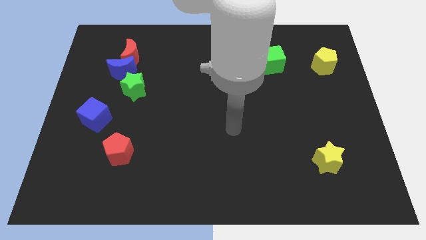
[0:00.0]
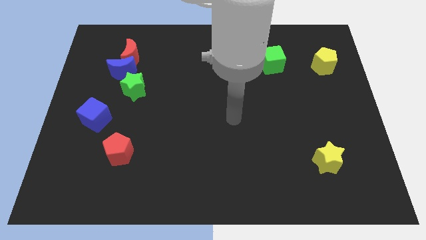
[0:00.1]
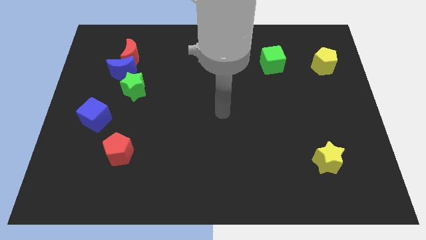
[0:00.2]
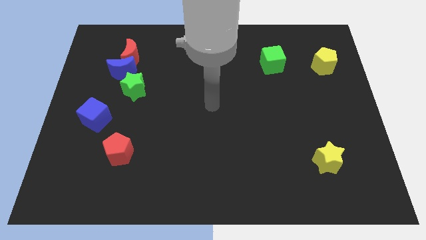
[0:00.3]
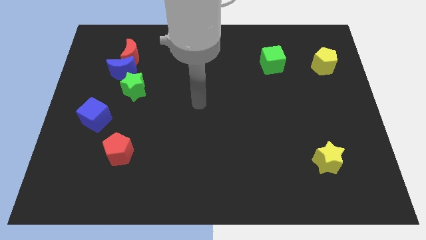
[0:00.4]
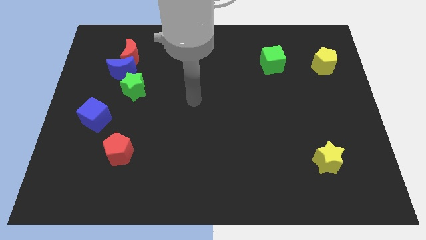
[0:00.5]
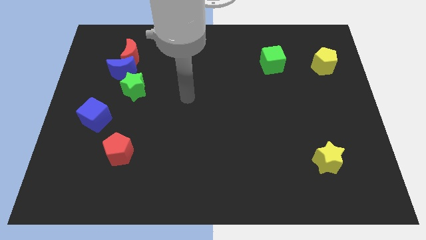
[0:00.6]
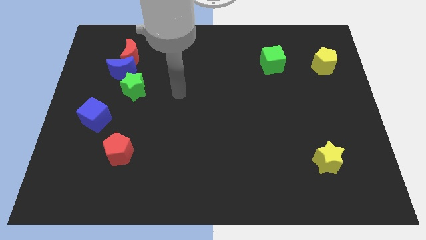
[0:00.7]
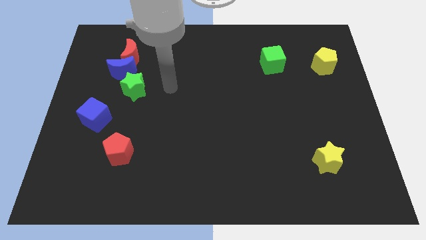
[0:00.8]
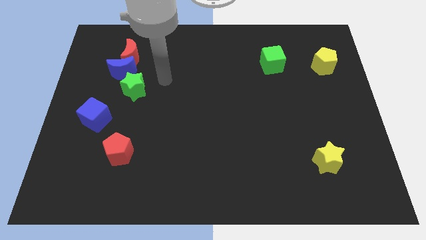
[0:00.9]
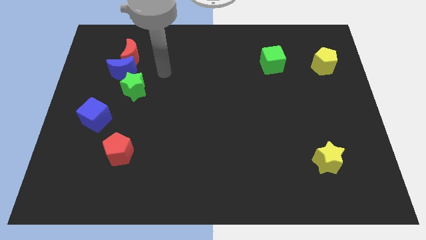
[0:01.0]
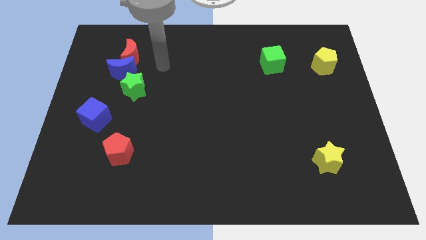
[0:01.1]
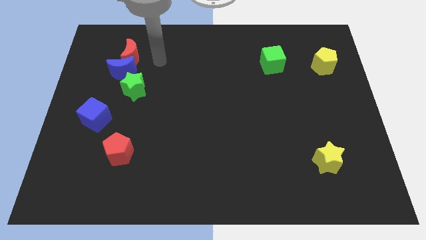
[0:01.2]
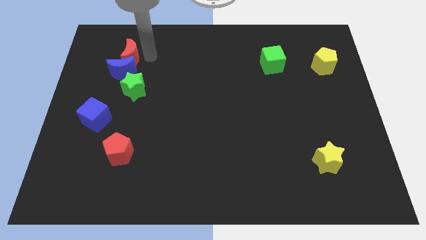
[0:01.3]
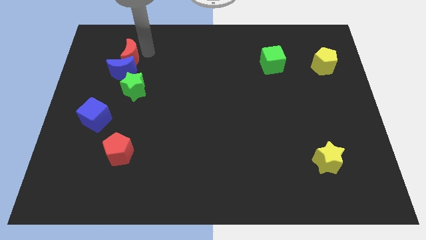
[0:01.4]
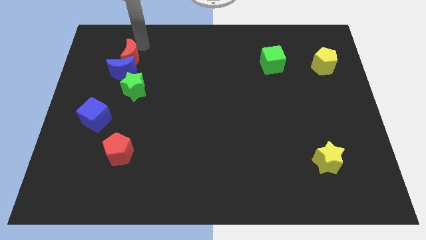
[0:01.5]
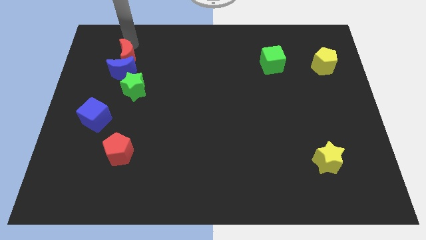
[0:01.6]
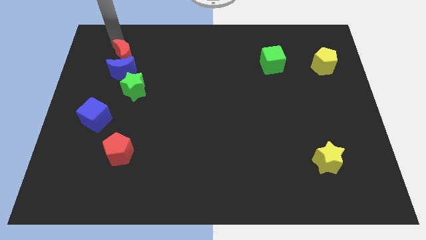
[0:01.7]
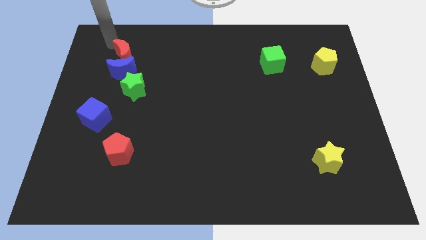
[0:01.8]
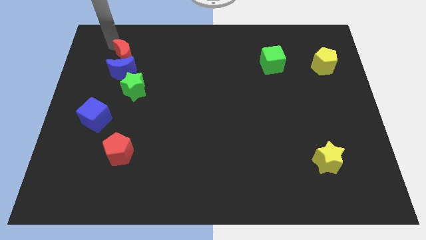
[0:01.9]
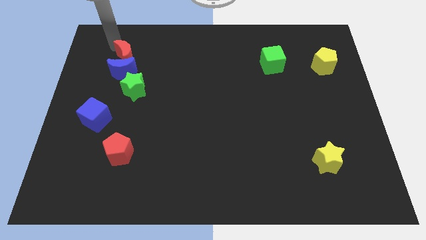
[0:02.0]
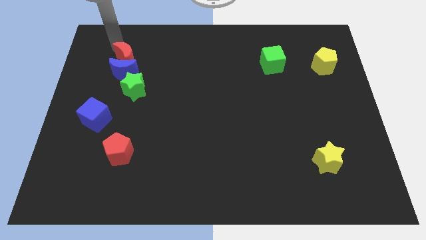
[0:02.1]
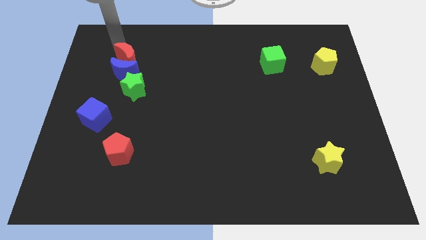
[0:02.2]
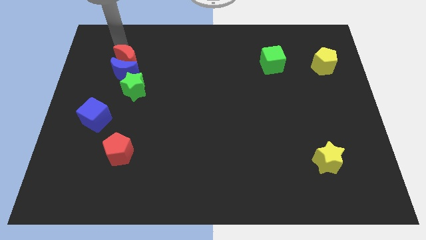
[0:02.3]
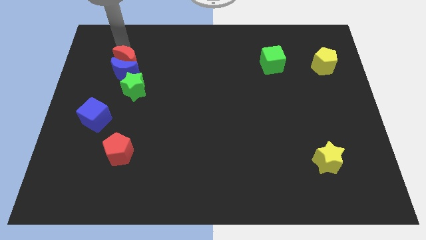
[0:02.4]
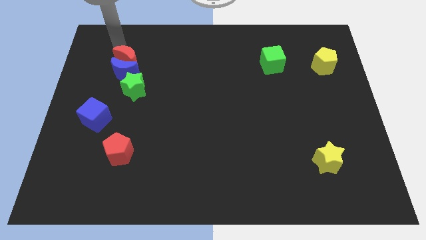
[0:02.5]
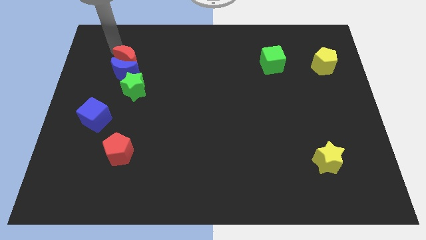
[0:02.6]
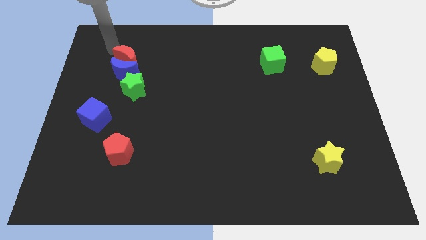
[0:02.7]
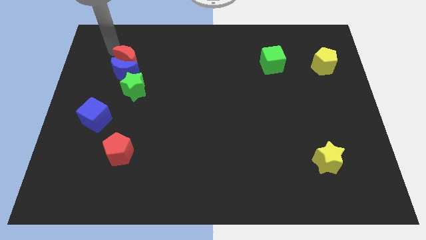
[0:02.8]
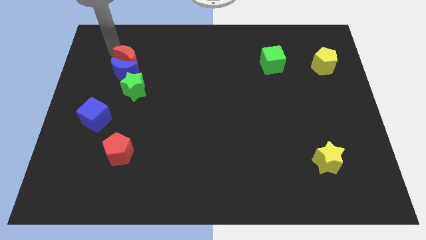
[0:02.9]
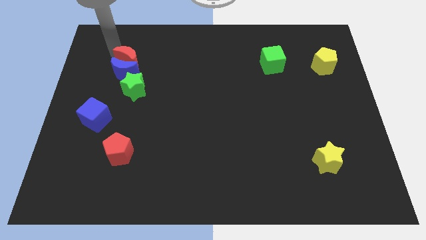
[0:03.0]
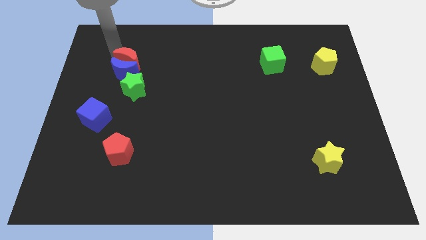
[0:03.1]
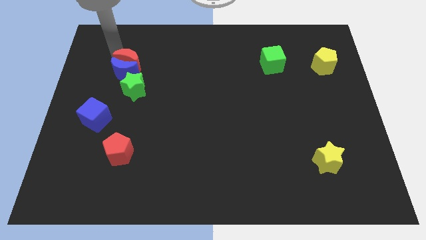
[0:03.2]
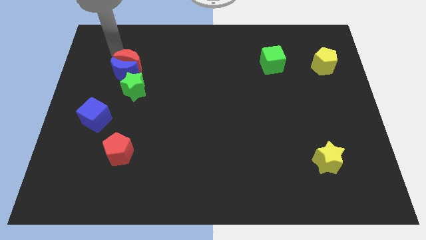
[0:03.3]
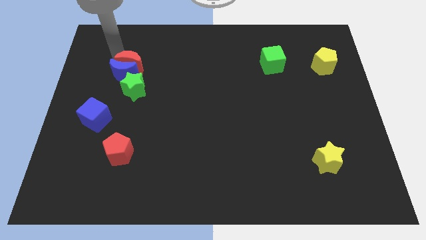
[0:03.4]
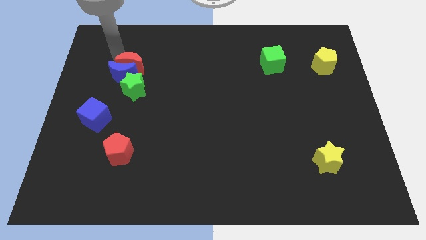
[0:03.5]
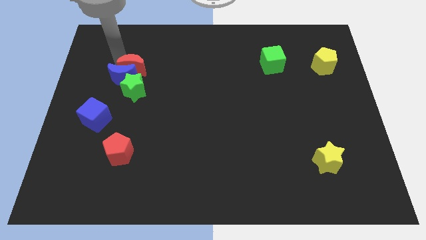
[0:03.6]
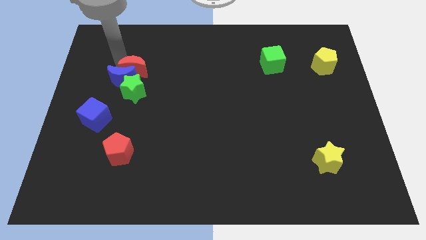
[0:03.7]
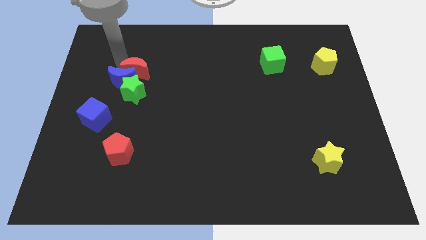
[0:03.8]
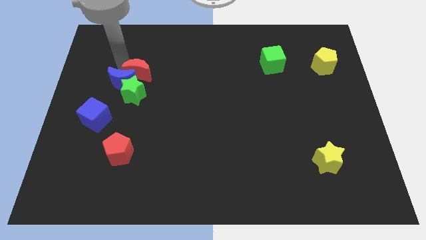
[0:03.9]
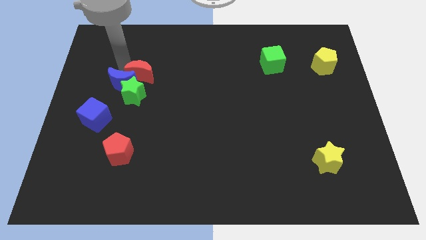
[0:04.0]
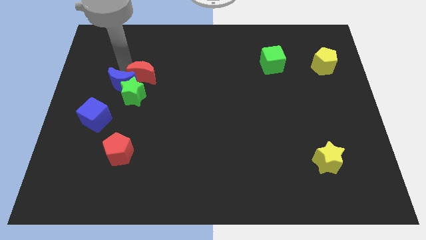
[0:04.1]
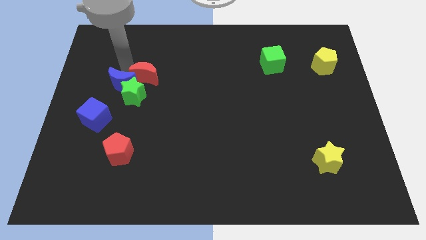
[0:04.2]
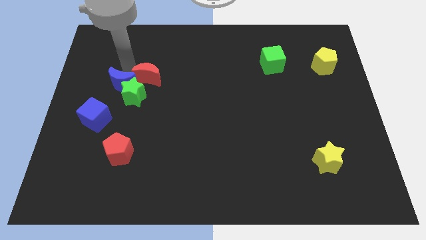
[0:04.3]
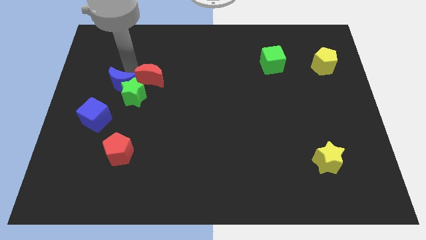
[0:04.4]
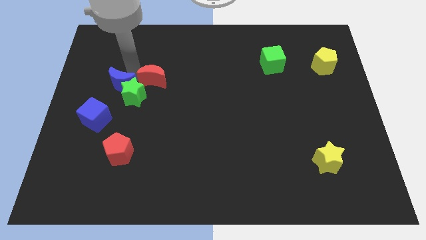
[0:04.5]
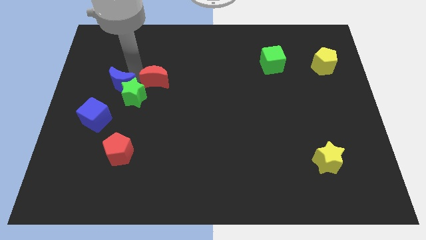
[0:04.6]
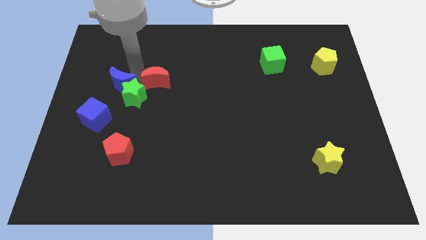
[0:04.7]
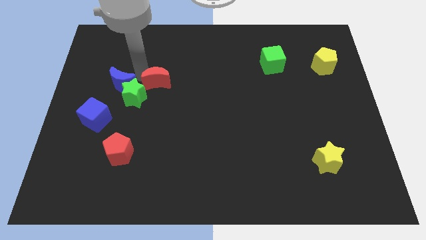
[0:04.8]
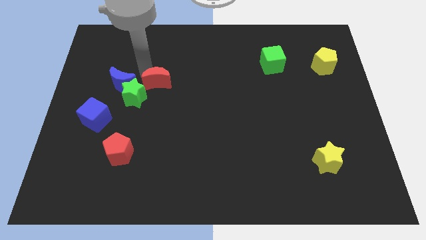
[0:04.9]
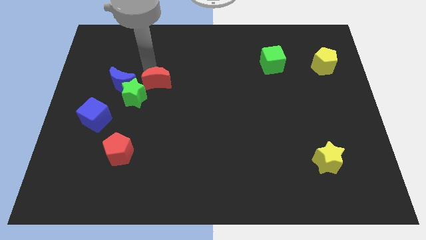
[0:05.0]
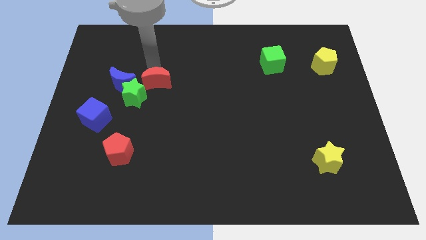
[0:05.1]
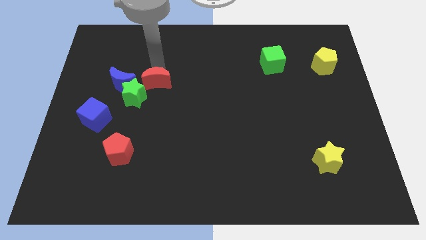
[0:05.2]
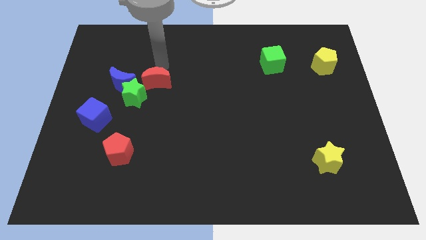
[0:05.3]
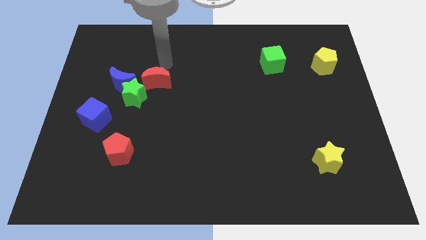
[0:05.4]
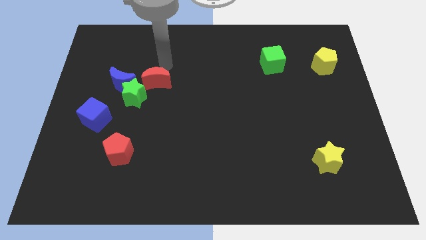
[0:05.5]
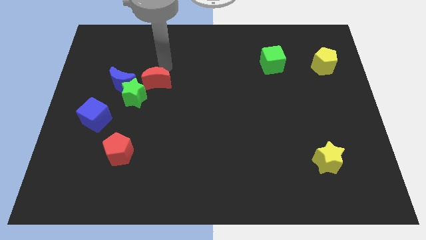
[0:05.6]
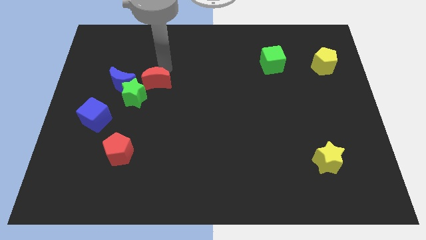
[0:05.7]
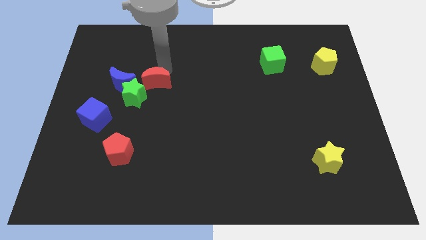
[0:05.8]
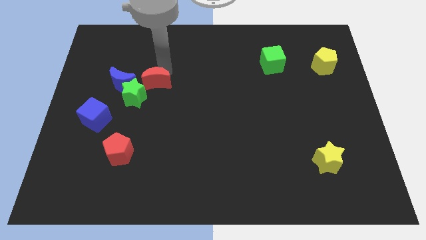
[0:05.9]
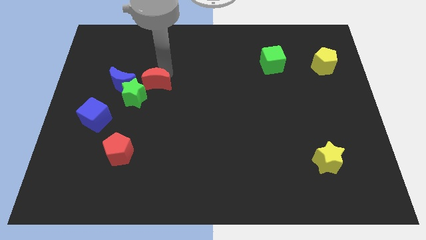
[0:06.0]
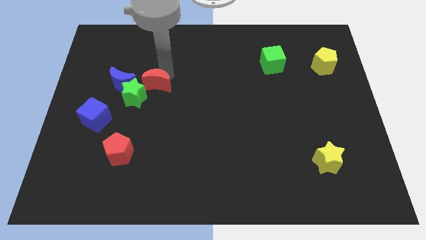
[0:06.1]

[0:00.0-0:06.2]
push the red moon downwards a bit

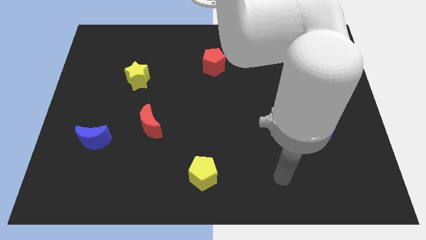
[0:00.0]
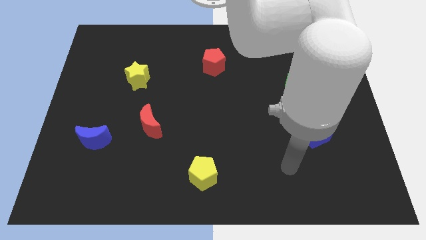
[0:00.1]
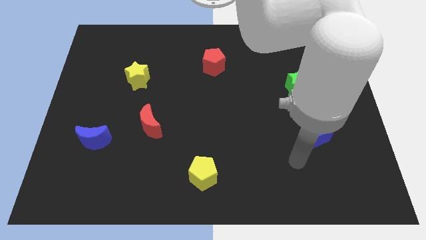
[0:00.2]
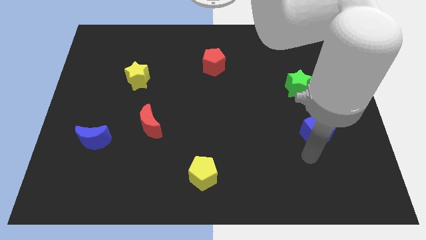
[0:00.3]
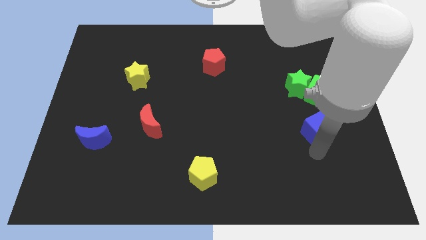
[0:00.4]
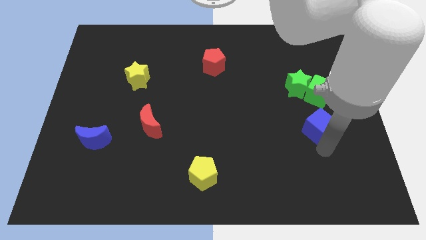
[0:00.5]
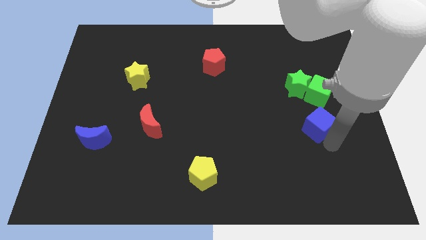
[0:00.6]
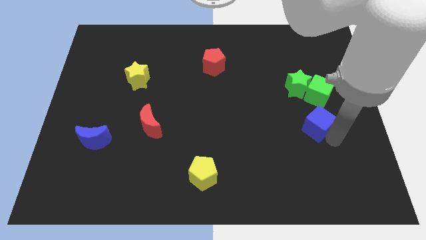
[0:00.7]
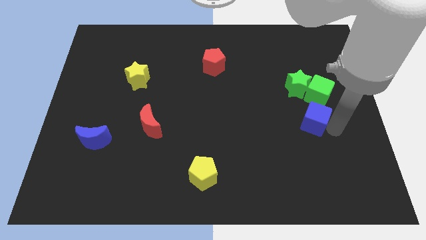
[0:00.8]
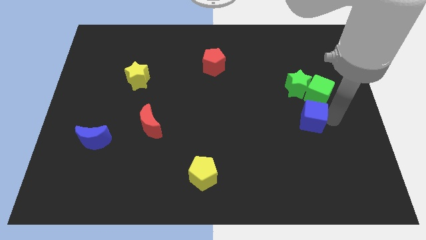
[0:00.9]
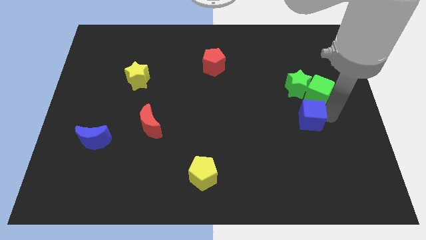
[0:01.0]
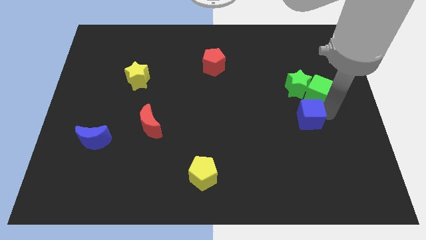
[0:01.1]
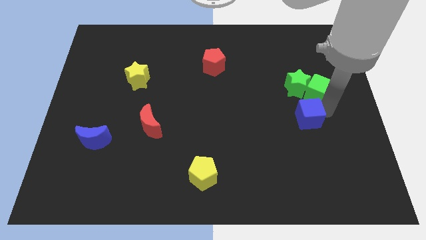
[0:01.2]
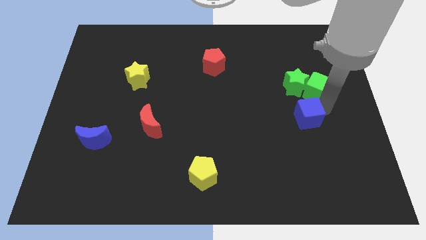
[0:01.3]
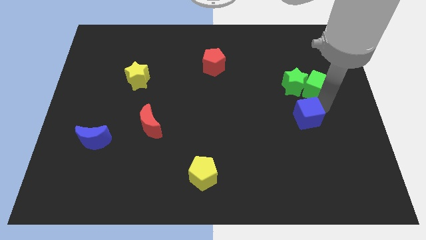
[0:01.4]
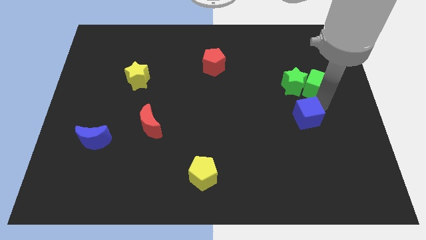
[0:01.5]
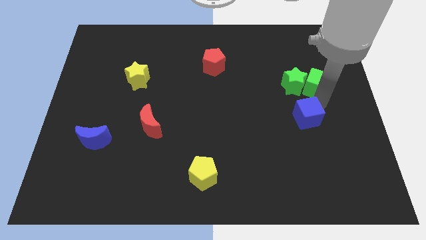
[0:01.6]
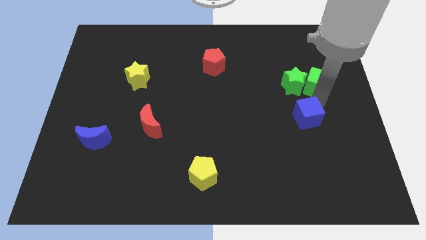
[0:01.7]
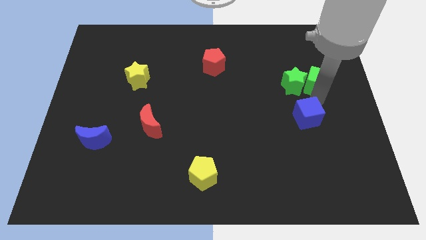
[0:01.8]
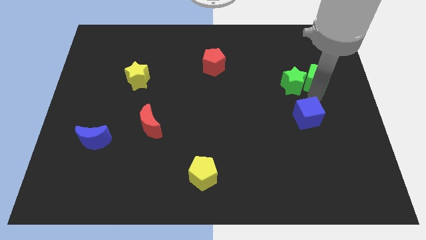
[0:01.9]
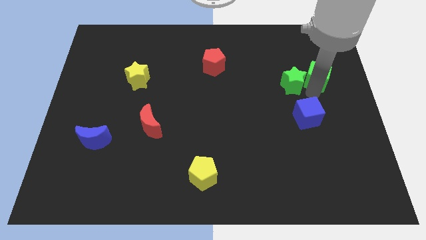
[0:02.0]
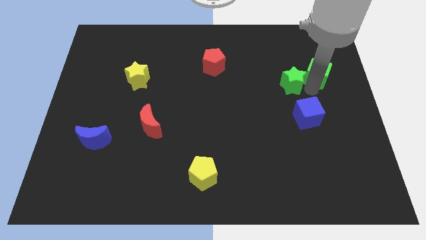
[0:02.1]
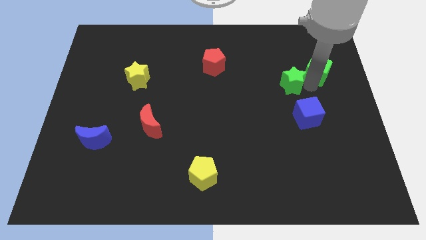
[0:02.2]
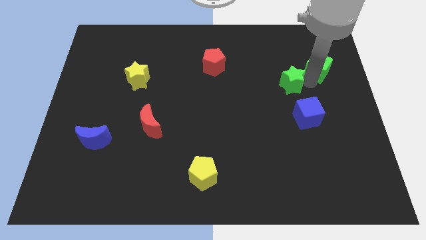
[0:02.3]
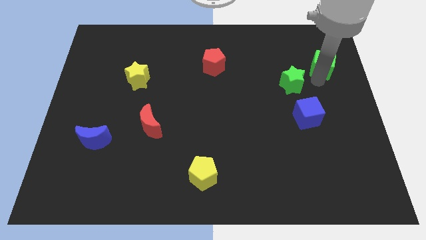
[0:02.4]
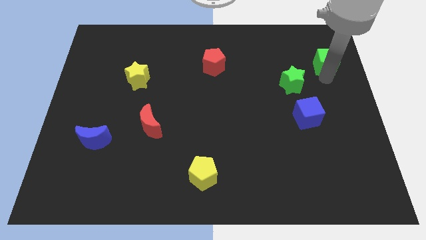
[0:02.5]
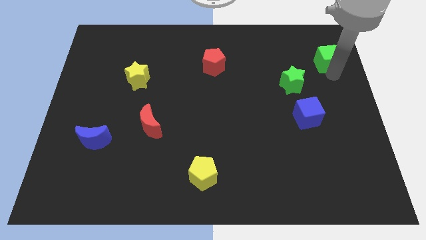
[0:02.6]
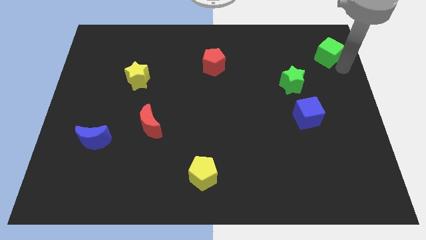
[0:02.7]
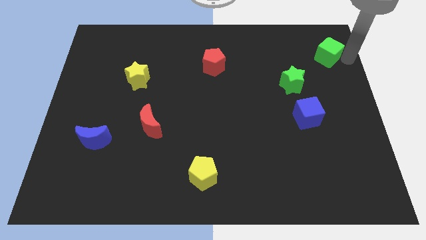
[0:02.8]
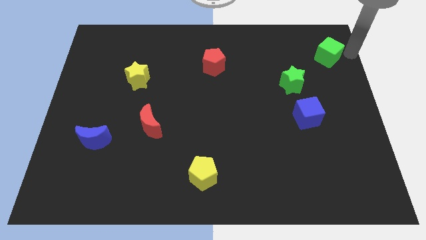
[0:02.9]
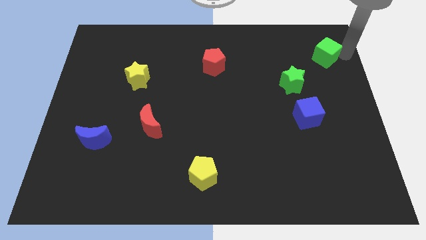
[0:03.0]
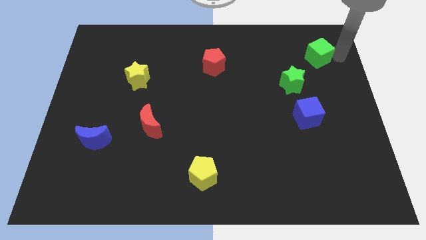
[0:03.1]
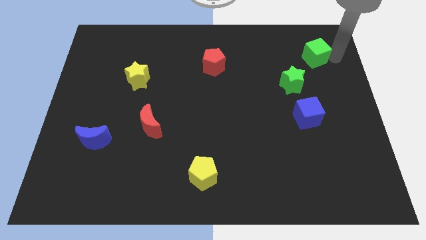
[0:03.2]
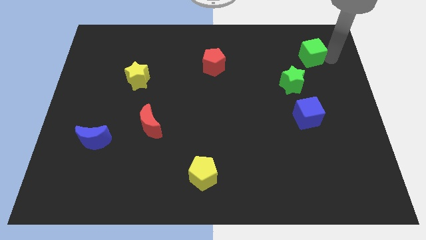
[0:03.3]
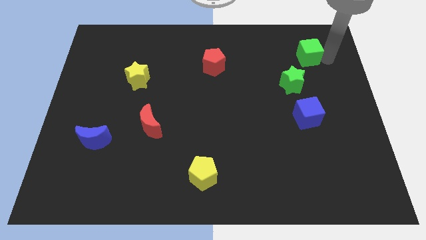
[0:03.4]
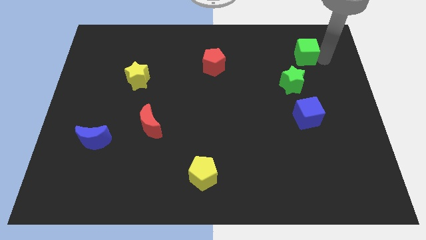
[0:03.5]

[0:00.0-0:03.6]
slightly move the green cube diagonally up and to the left
